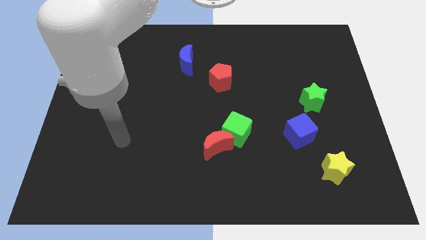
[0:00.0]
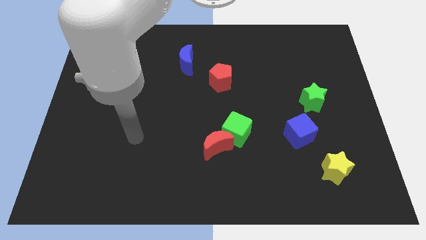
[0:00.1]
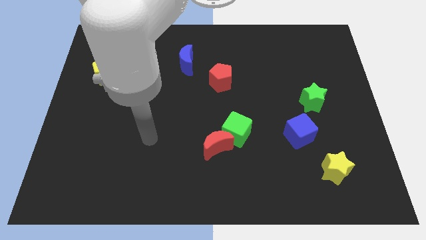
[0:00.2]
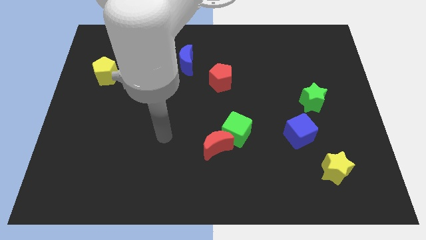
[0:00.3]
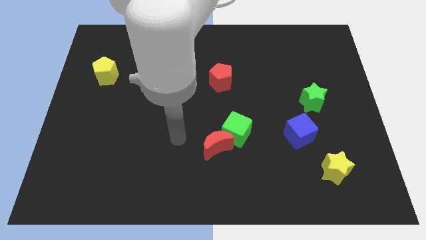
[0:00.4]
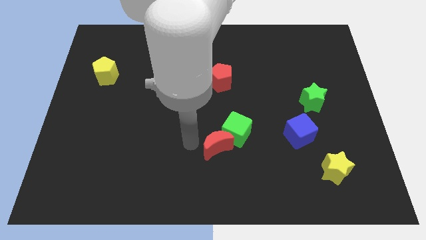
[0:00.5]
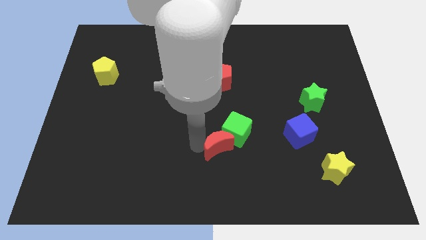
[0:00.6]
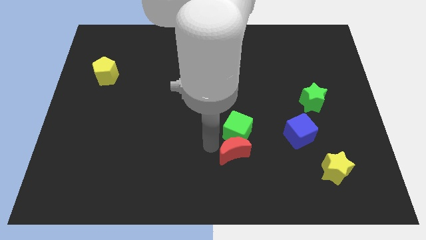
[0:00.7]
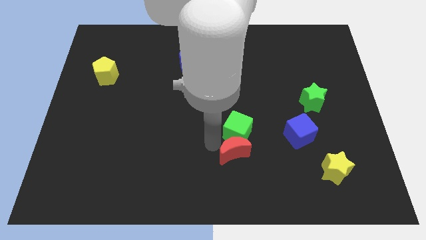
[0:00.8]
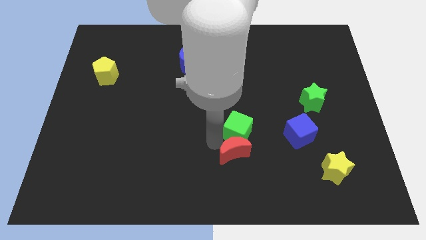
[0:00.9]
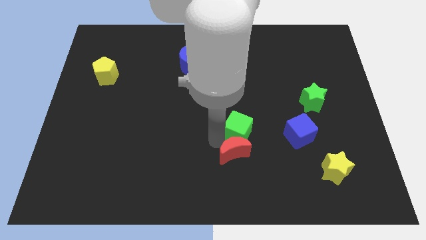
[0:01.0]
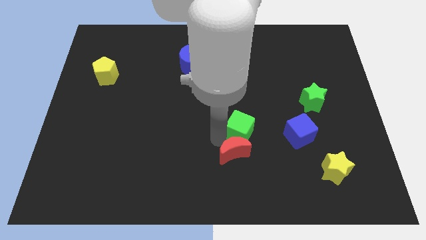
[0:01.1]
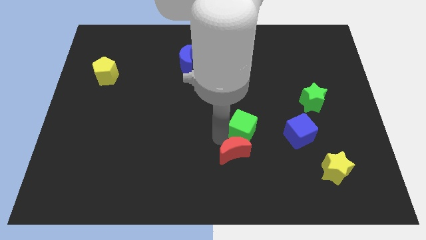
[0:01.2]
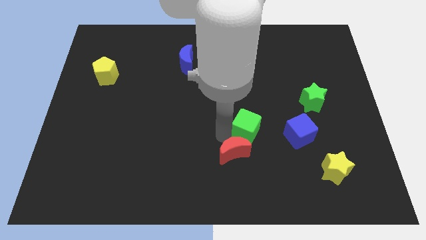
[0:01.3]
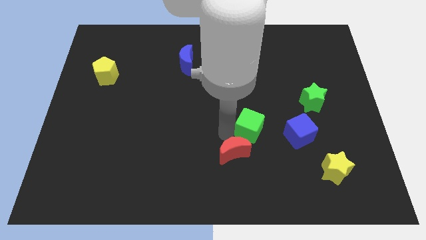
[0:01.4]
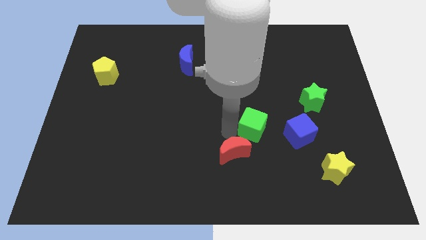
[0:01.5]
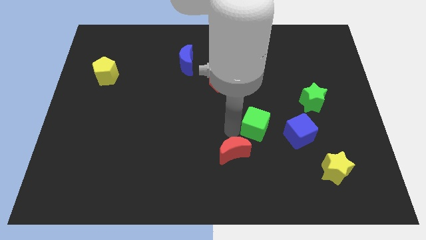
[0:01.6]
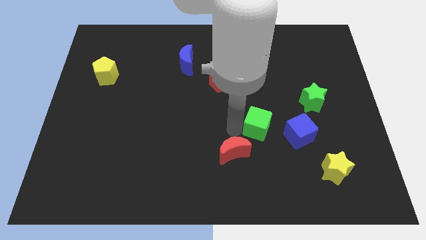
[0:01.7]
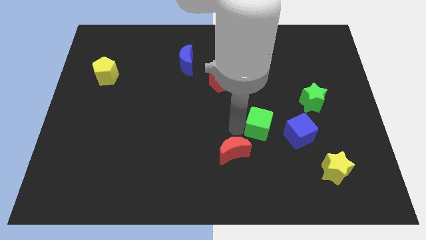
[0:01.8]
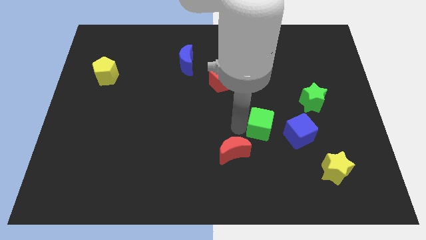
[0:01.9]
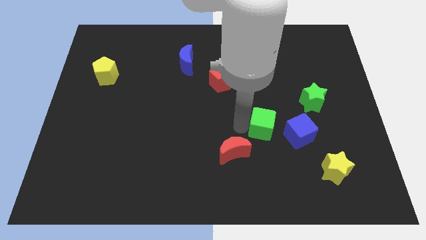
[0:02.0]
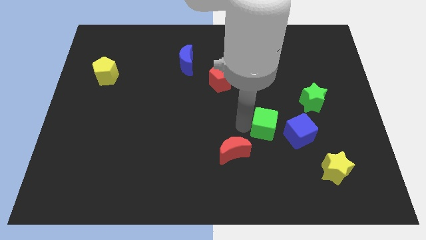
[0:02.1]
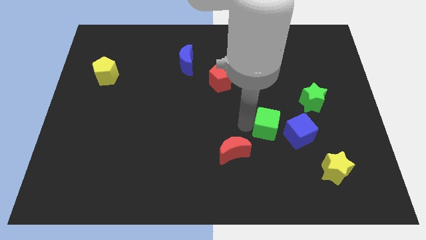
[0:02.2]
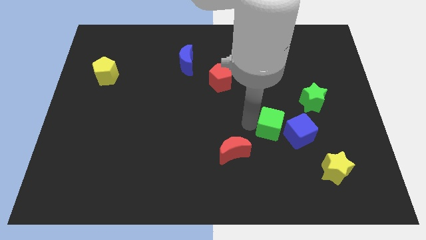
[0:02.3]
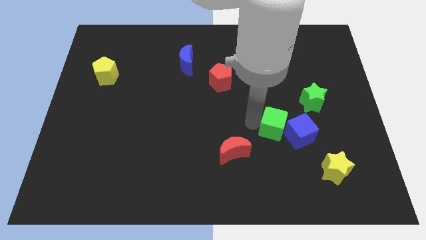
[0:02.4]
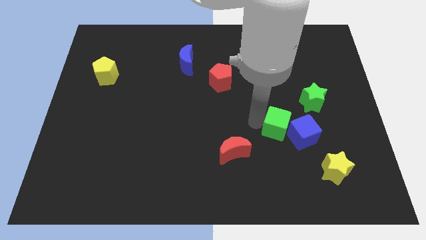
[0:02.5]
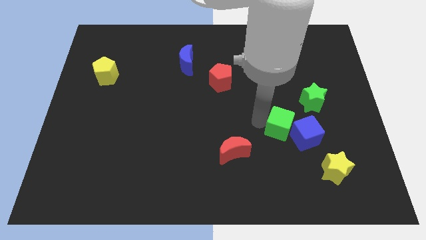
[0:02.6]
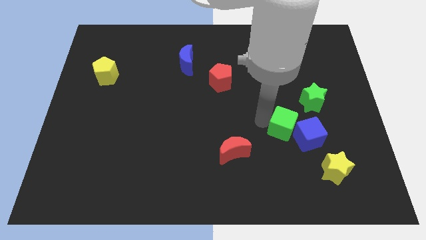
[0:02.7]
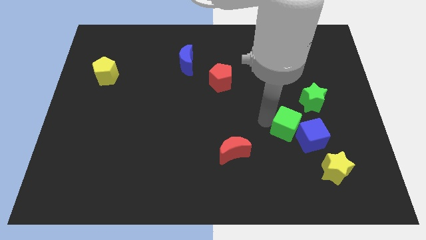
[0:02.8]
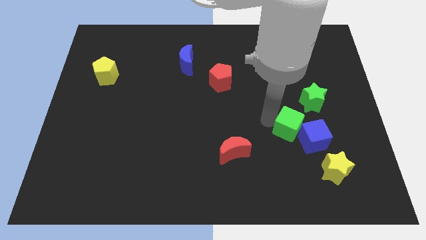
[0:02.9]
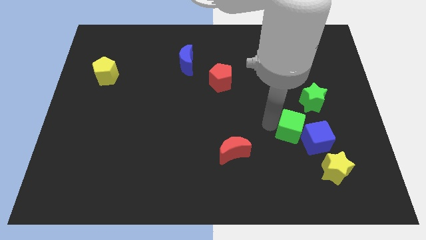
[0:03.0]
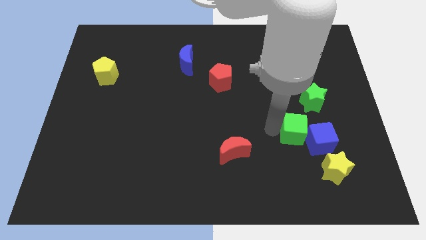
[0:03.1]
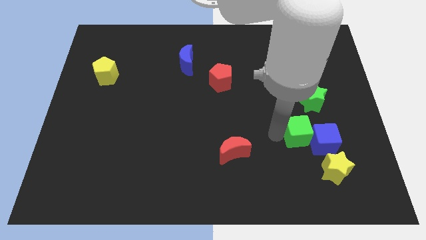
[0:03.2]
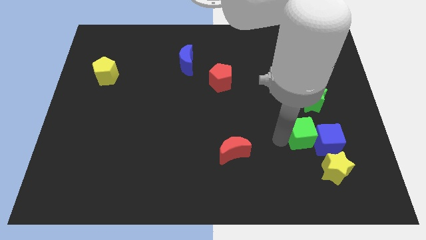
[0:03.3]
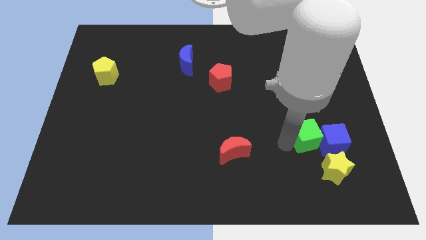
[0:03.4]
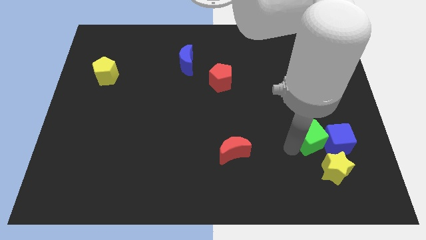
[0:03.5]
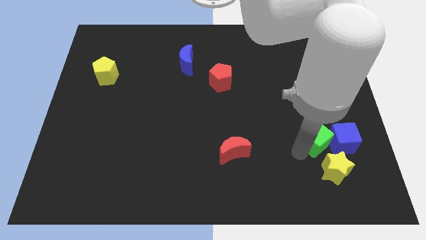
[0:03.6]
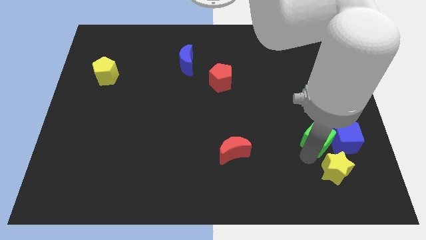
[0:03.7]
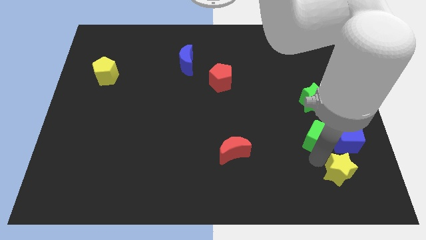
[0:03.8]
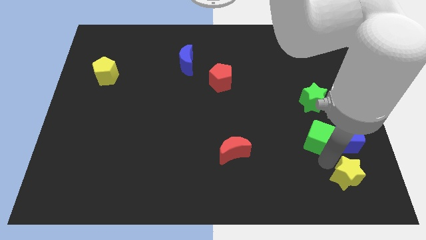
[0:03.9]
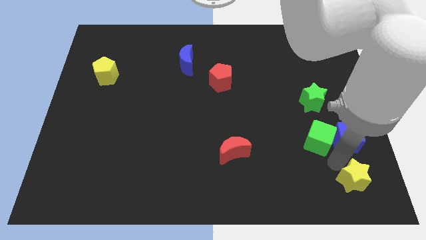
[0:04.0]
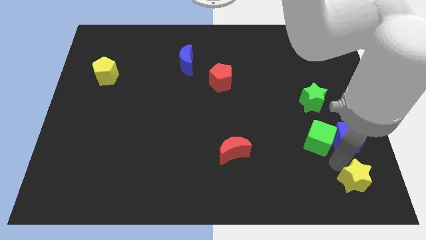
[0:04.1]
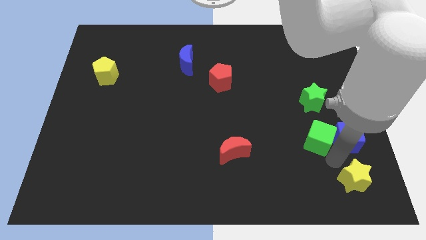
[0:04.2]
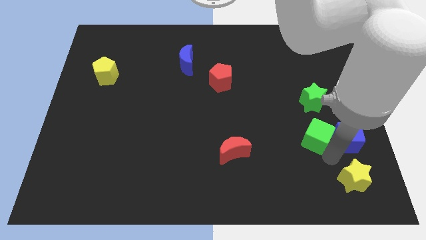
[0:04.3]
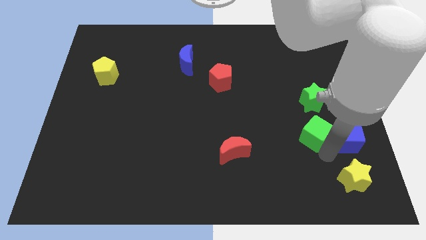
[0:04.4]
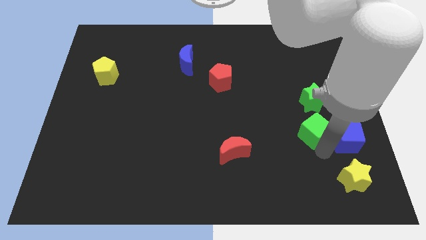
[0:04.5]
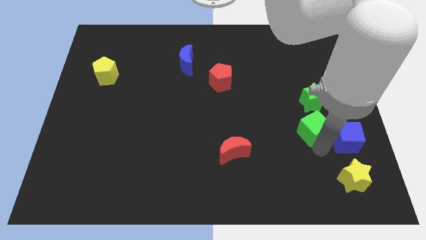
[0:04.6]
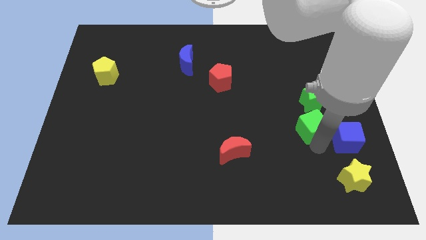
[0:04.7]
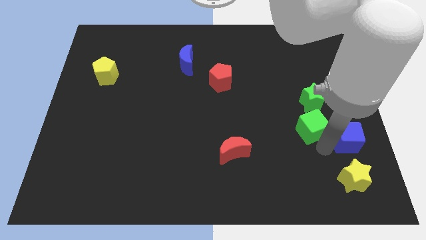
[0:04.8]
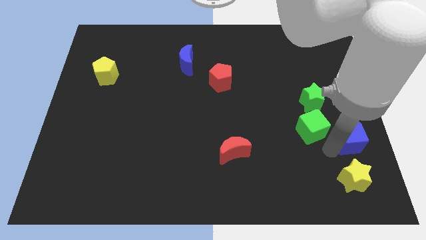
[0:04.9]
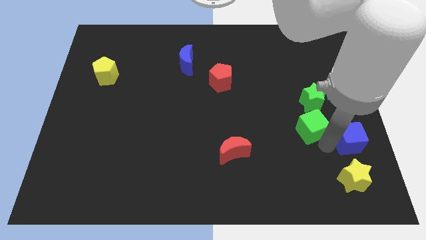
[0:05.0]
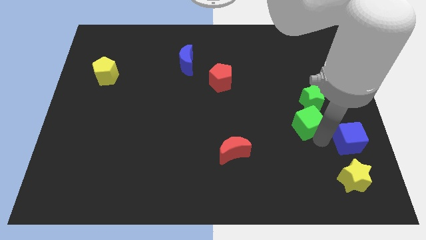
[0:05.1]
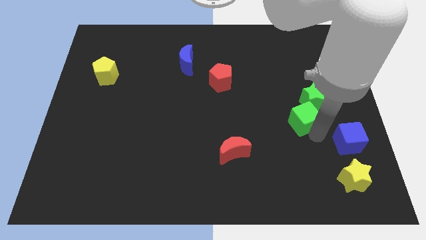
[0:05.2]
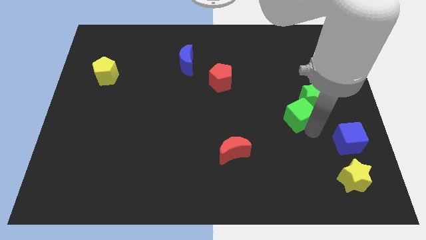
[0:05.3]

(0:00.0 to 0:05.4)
put the green cube close to the green star

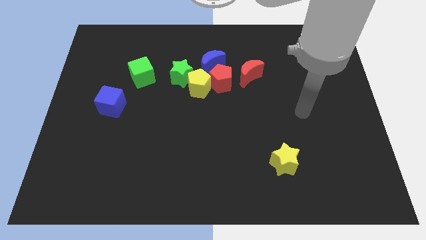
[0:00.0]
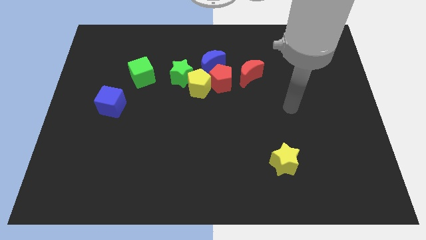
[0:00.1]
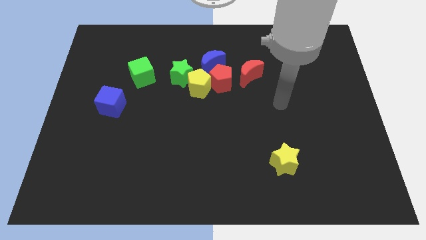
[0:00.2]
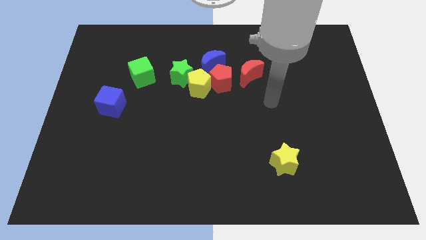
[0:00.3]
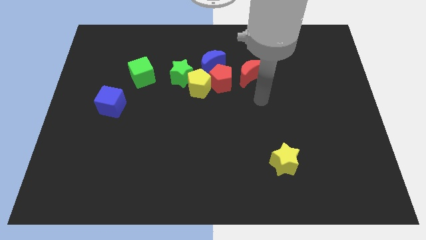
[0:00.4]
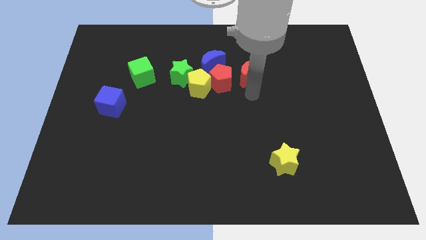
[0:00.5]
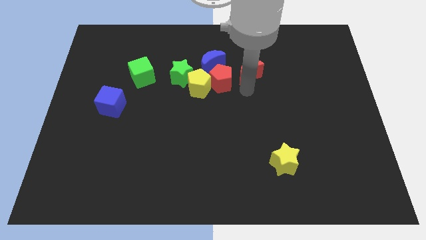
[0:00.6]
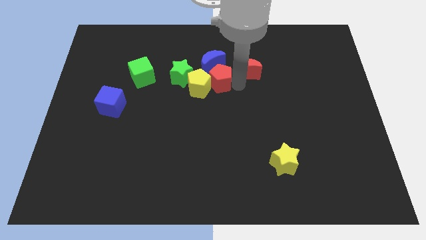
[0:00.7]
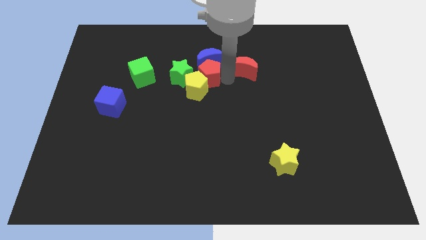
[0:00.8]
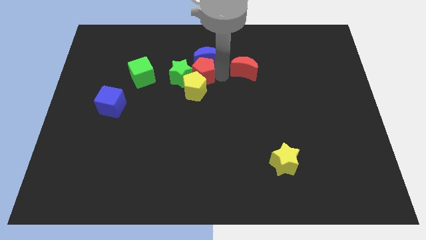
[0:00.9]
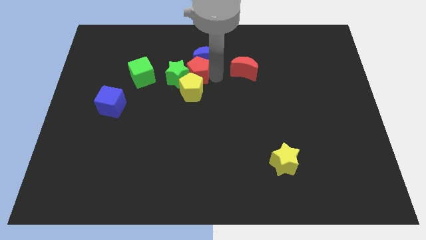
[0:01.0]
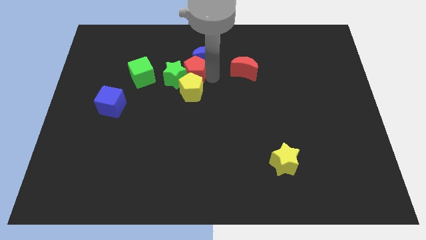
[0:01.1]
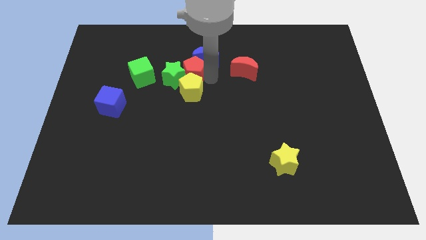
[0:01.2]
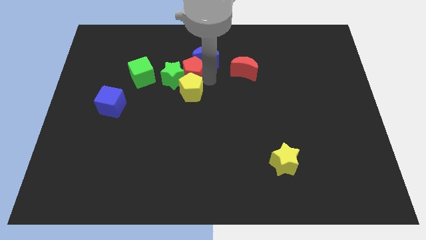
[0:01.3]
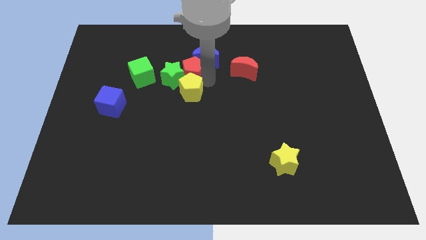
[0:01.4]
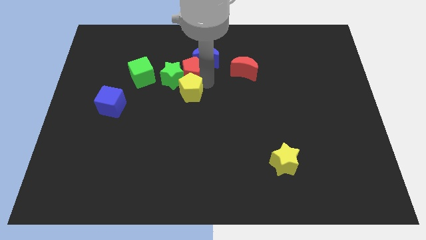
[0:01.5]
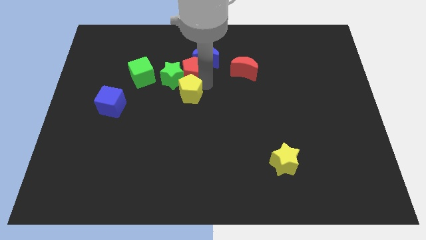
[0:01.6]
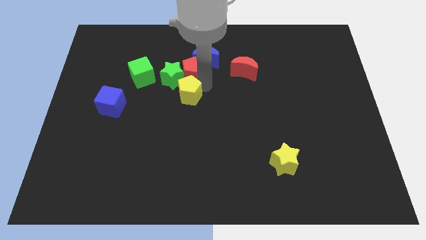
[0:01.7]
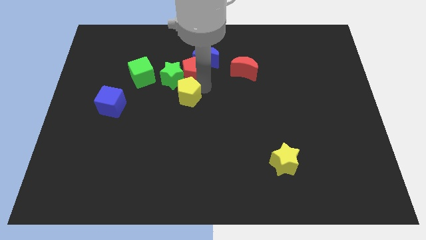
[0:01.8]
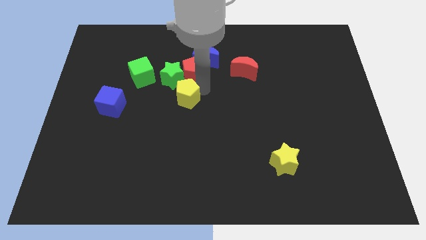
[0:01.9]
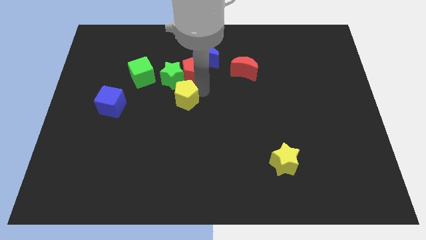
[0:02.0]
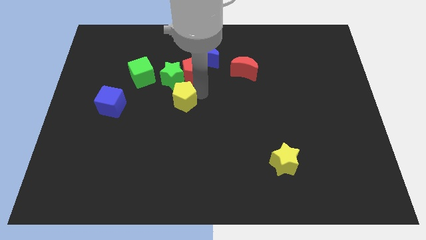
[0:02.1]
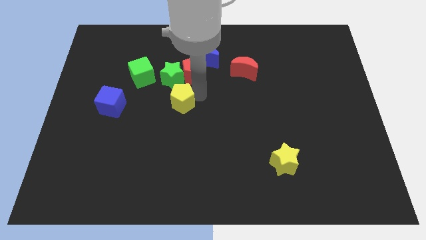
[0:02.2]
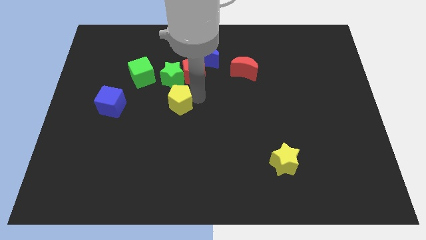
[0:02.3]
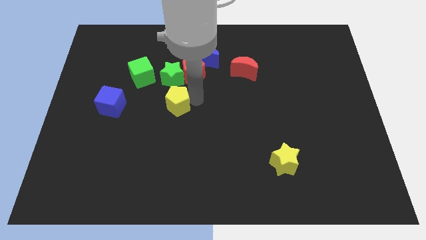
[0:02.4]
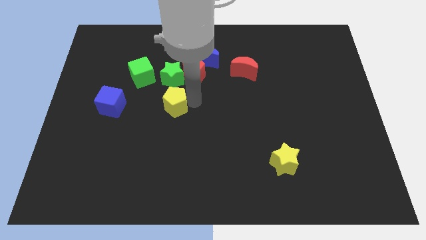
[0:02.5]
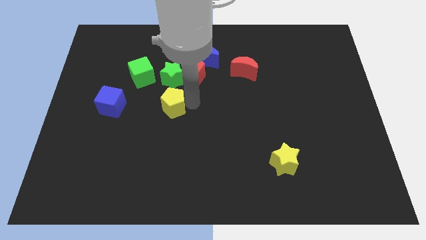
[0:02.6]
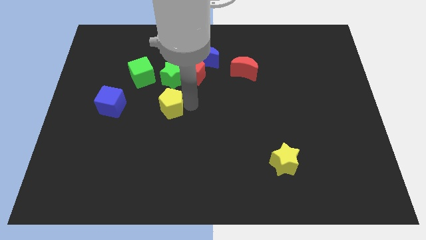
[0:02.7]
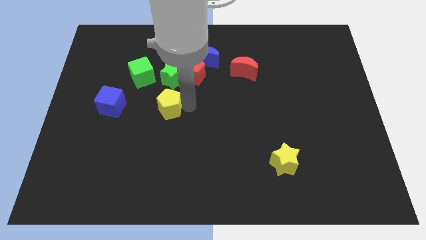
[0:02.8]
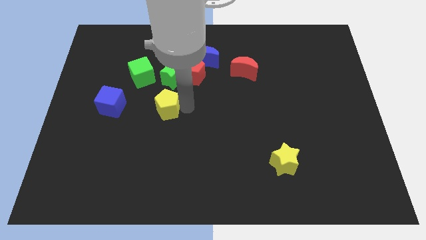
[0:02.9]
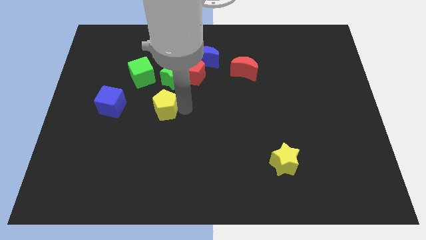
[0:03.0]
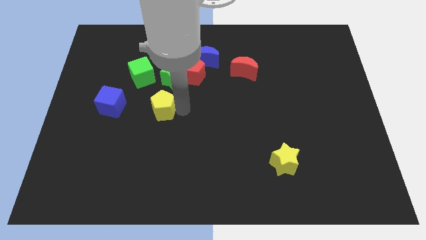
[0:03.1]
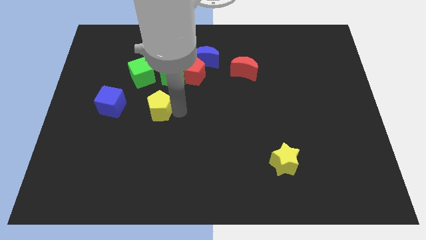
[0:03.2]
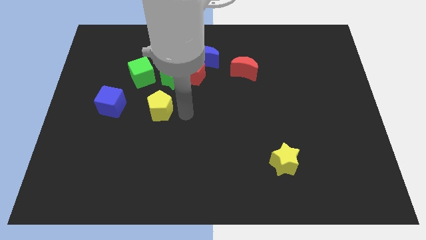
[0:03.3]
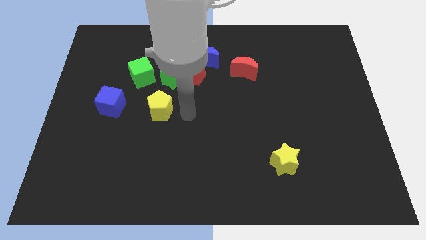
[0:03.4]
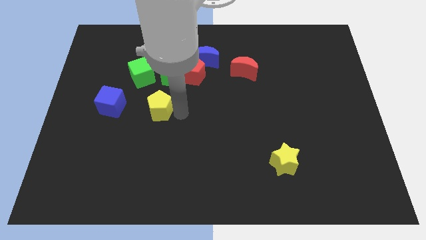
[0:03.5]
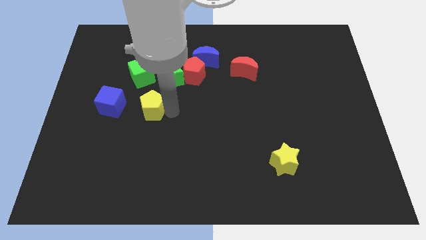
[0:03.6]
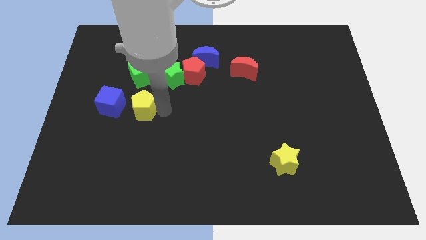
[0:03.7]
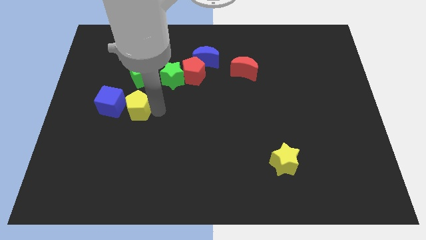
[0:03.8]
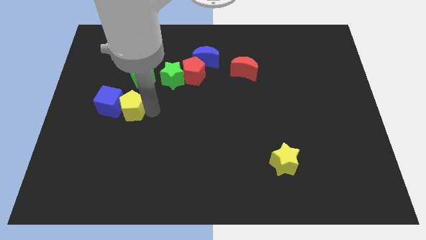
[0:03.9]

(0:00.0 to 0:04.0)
slide the yellow pentagon close to the blue cube
